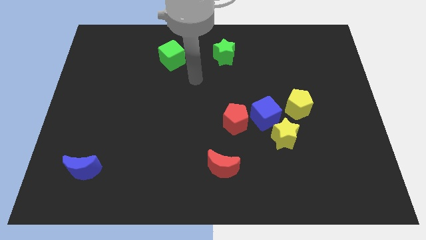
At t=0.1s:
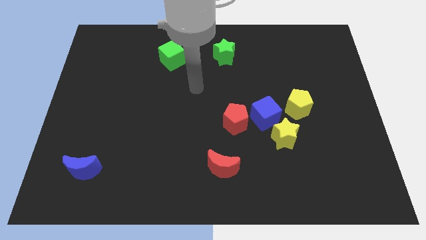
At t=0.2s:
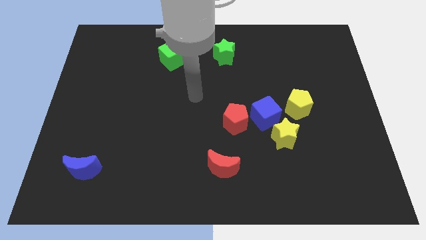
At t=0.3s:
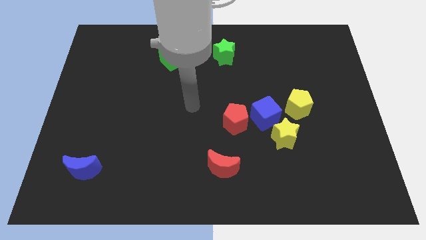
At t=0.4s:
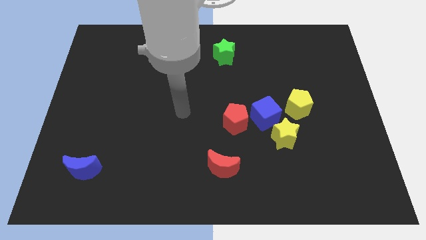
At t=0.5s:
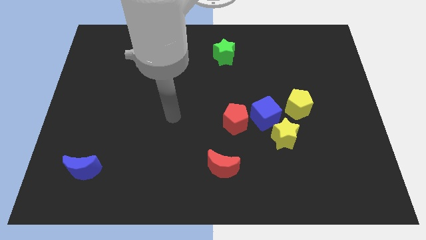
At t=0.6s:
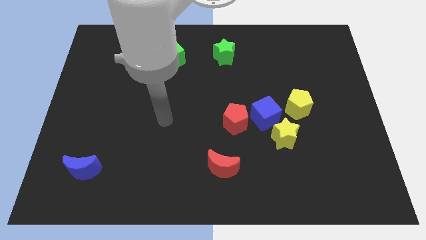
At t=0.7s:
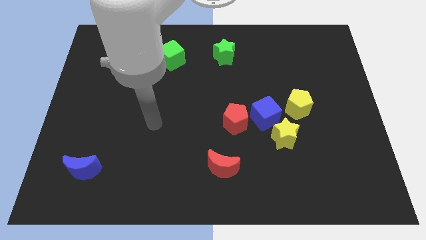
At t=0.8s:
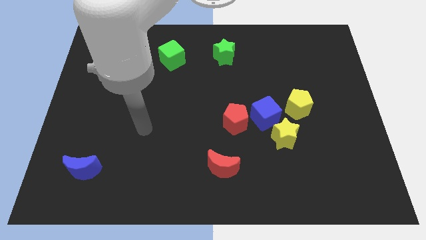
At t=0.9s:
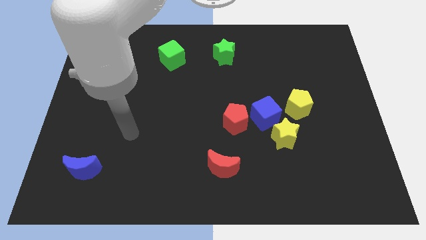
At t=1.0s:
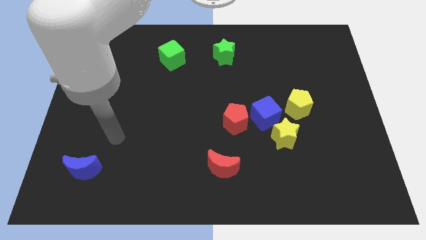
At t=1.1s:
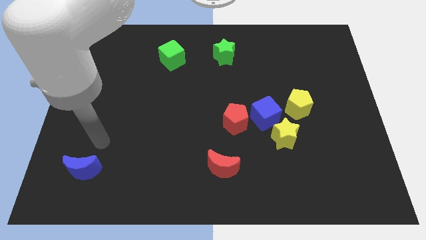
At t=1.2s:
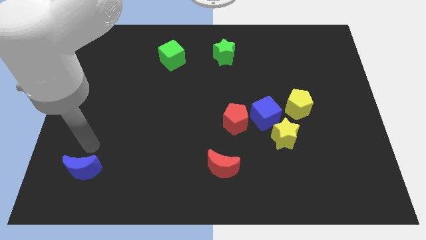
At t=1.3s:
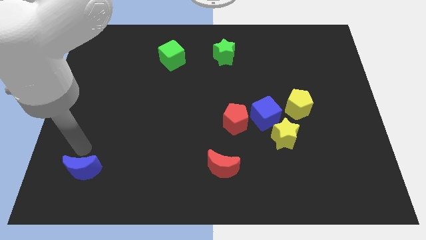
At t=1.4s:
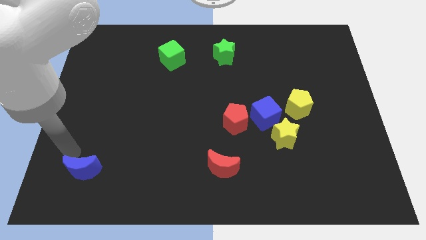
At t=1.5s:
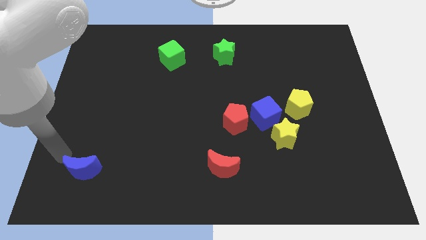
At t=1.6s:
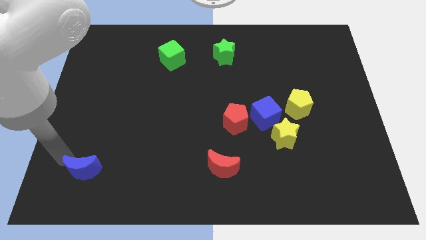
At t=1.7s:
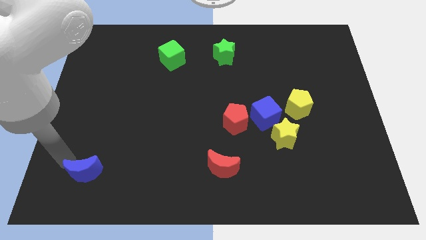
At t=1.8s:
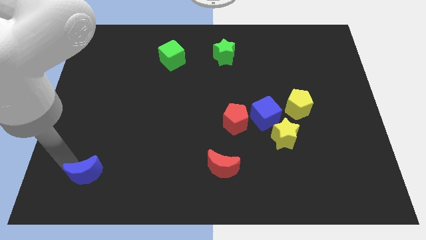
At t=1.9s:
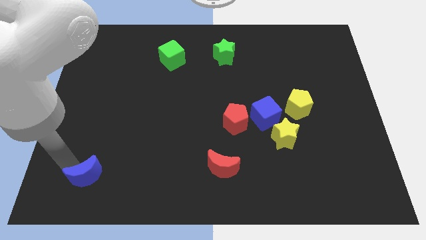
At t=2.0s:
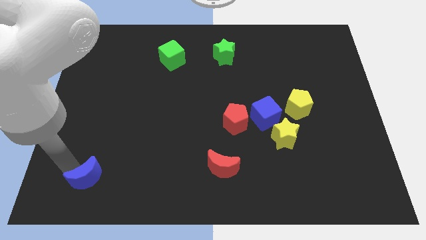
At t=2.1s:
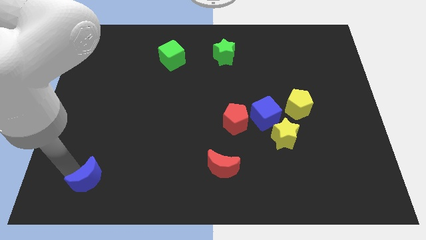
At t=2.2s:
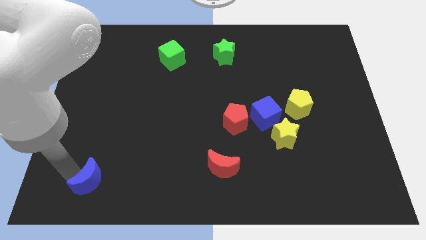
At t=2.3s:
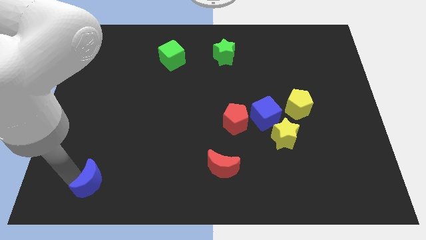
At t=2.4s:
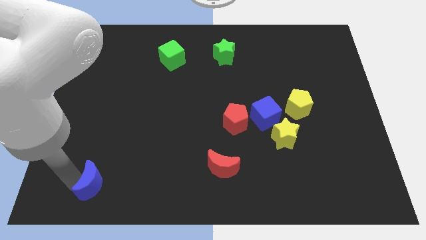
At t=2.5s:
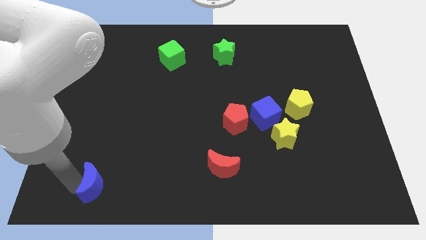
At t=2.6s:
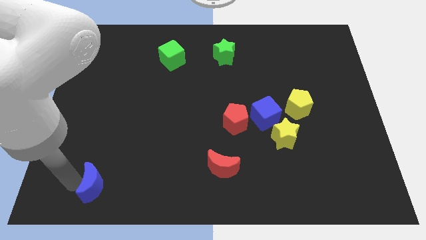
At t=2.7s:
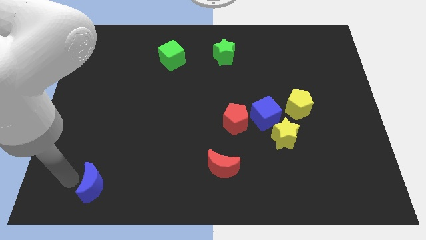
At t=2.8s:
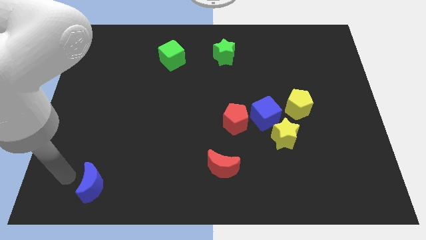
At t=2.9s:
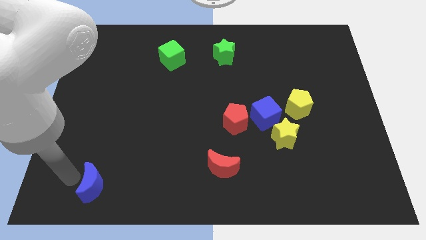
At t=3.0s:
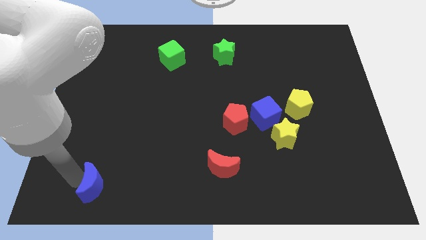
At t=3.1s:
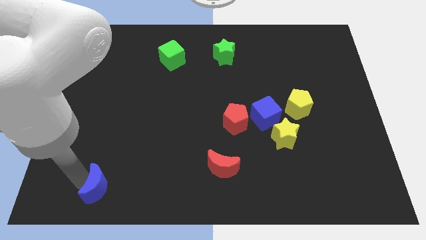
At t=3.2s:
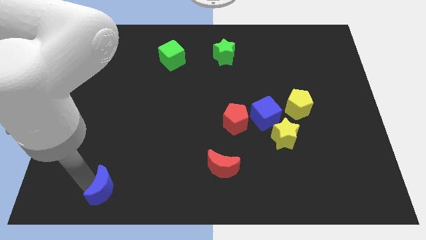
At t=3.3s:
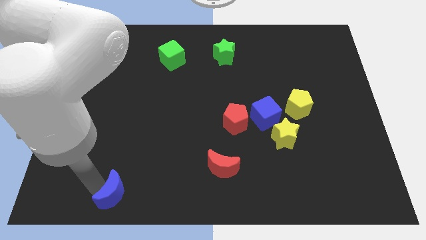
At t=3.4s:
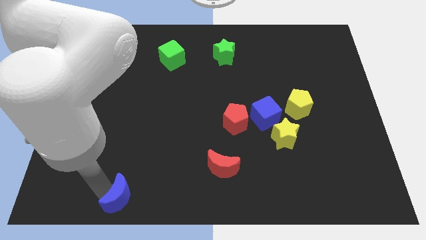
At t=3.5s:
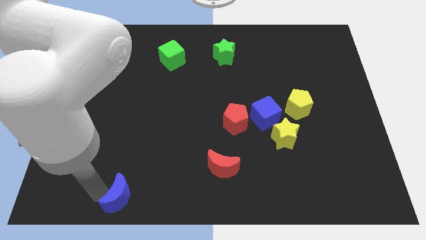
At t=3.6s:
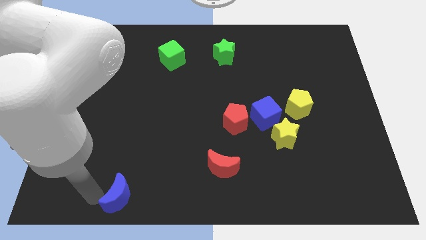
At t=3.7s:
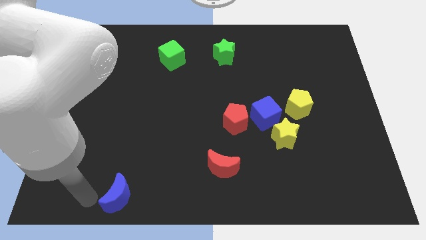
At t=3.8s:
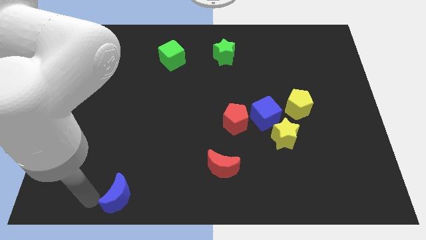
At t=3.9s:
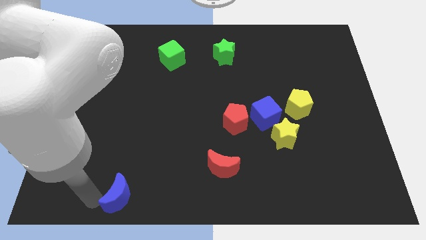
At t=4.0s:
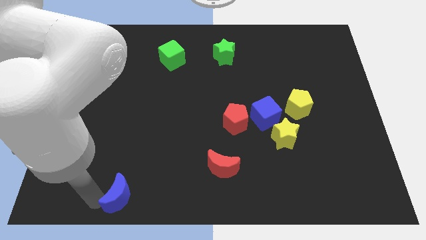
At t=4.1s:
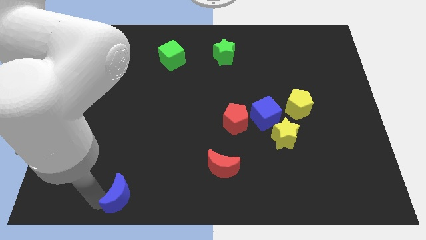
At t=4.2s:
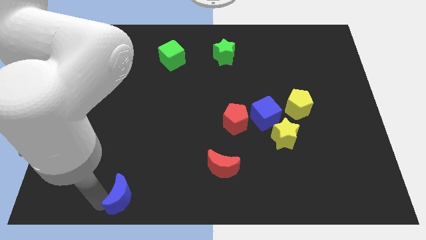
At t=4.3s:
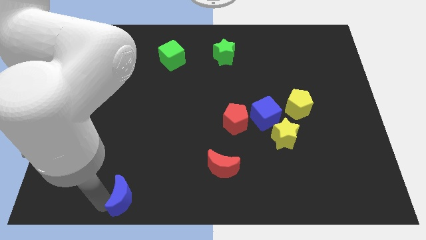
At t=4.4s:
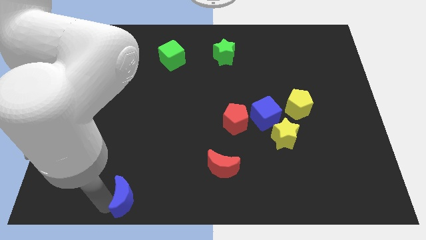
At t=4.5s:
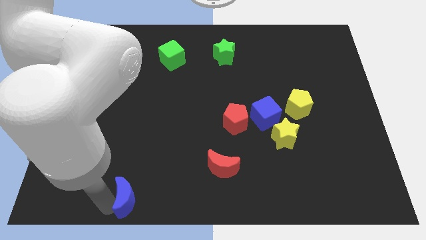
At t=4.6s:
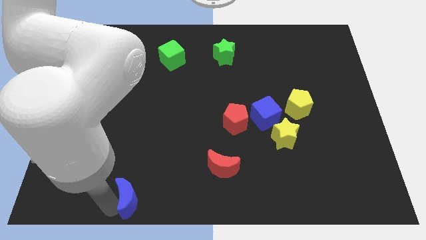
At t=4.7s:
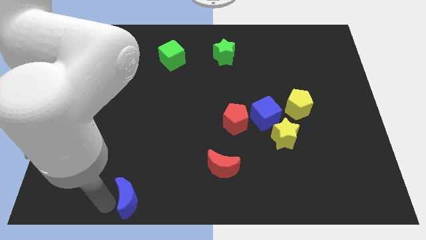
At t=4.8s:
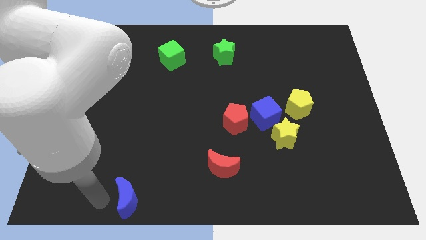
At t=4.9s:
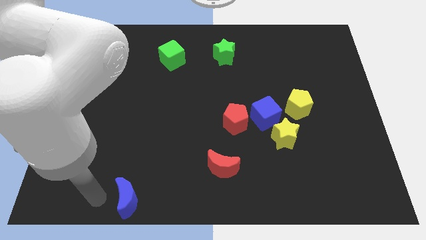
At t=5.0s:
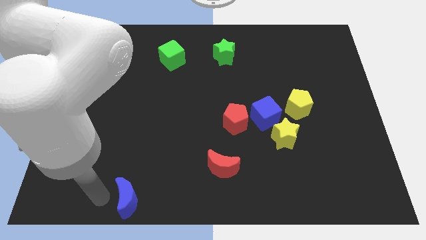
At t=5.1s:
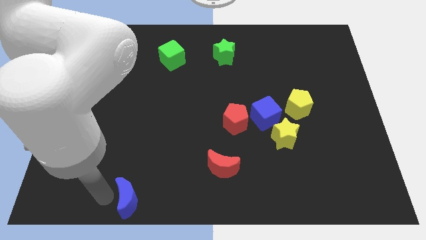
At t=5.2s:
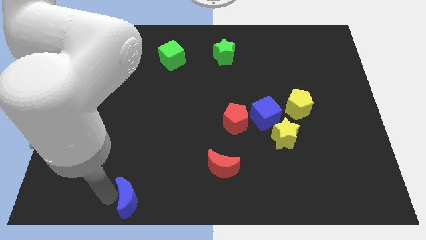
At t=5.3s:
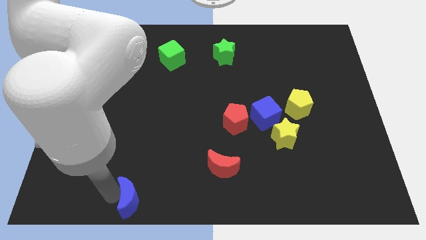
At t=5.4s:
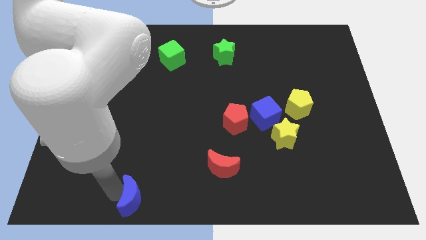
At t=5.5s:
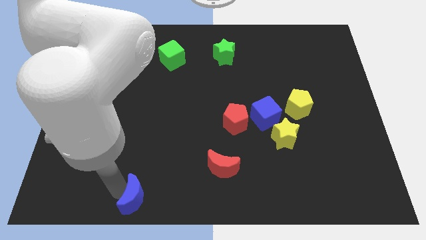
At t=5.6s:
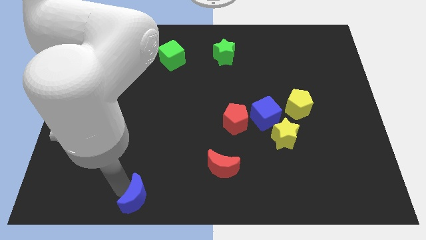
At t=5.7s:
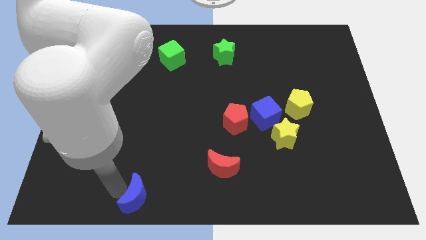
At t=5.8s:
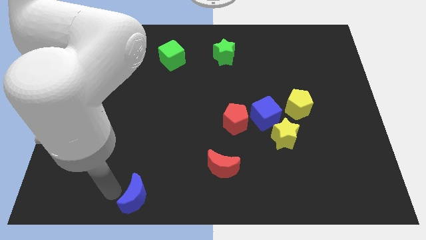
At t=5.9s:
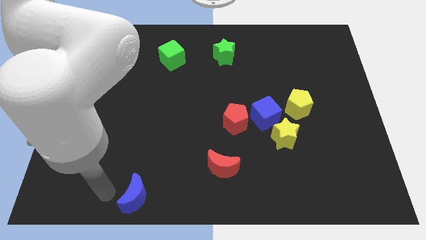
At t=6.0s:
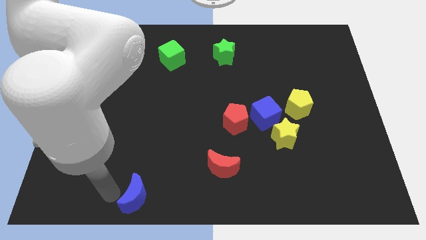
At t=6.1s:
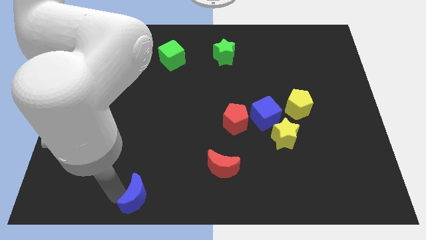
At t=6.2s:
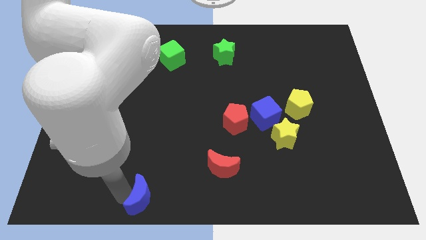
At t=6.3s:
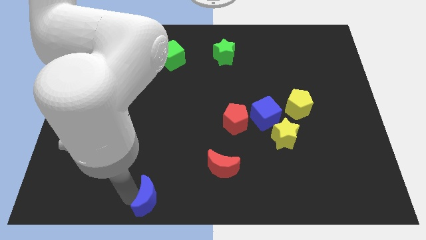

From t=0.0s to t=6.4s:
push the blue moon to the bottom
